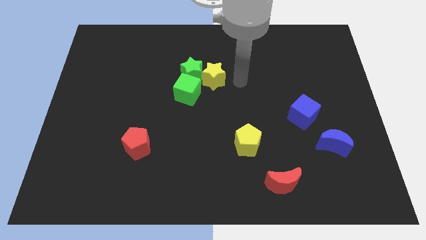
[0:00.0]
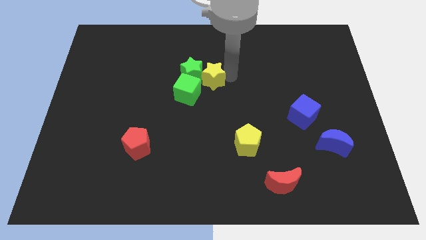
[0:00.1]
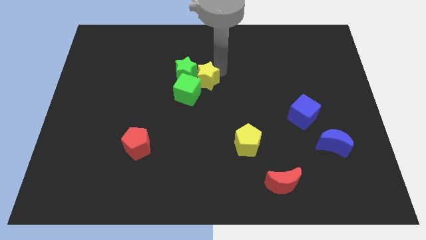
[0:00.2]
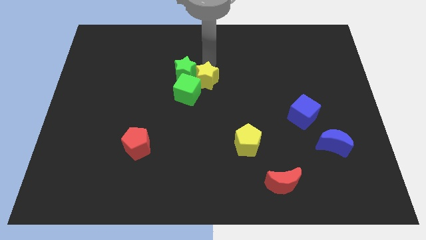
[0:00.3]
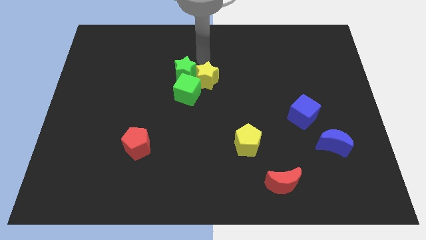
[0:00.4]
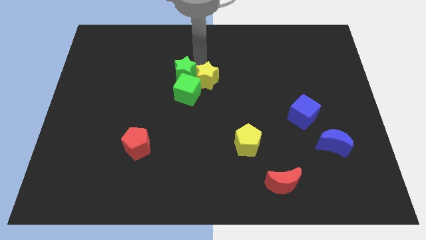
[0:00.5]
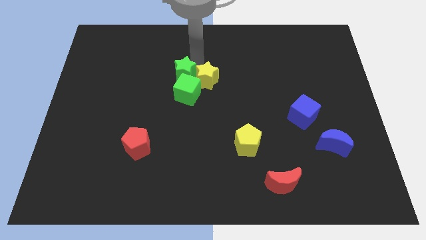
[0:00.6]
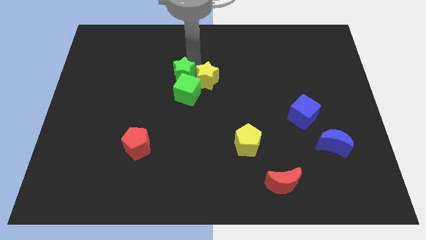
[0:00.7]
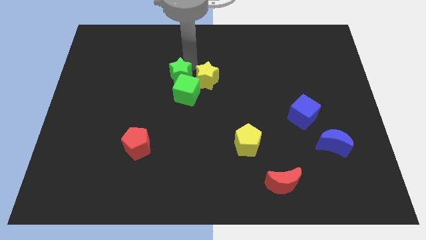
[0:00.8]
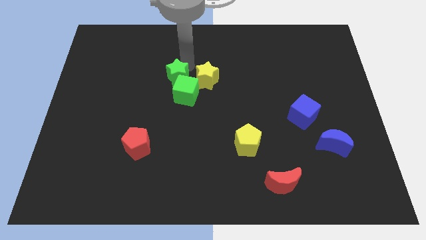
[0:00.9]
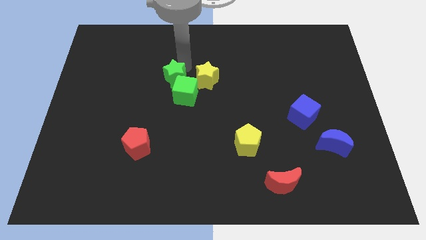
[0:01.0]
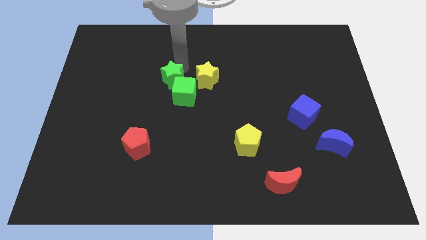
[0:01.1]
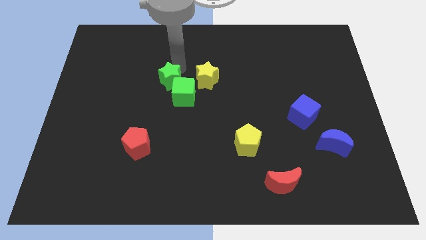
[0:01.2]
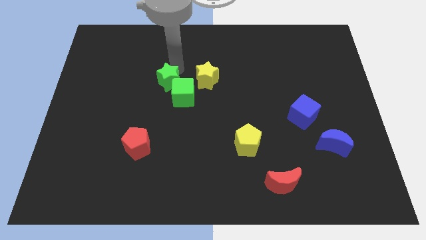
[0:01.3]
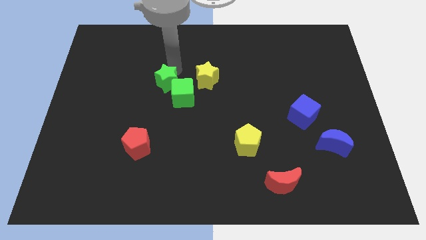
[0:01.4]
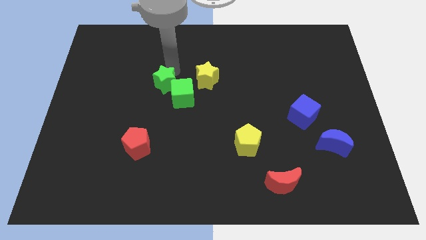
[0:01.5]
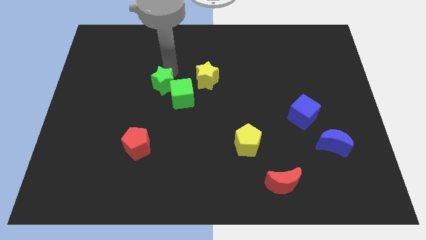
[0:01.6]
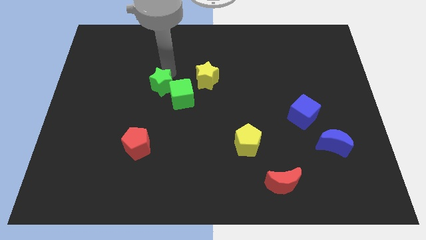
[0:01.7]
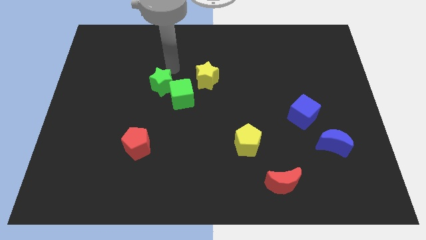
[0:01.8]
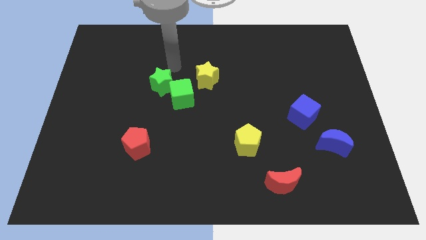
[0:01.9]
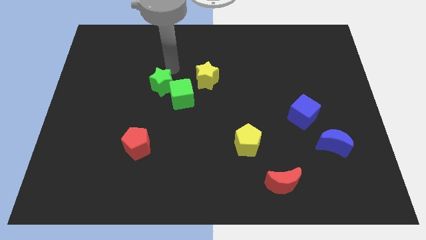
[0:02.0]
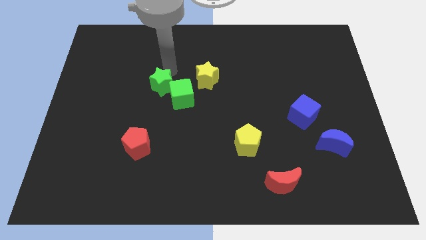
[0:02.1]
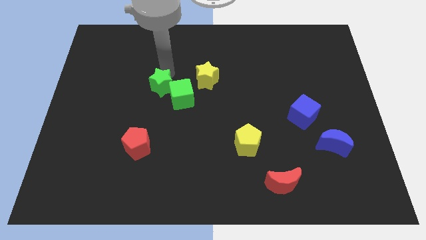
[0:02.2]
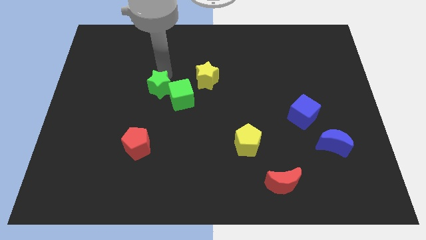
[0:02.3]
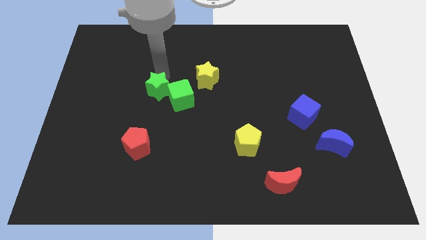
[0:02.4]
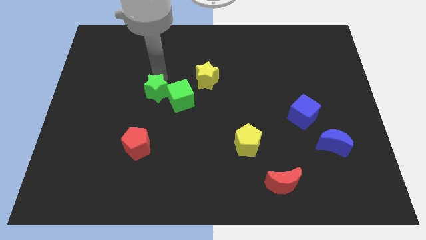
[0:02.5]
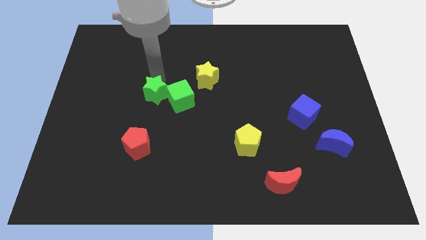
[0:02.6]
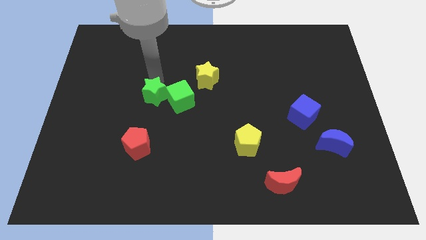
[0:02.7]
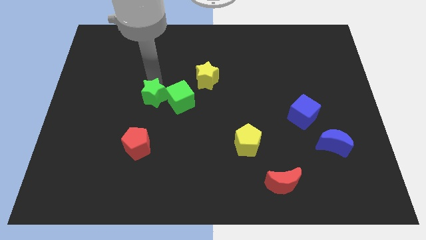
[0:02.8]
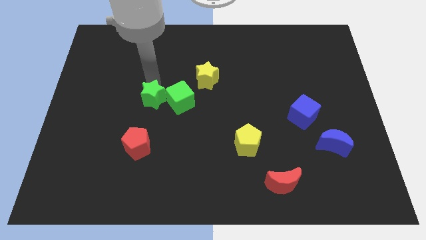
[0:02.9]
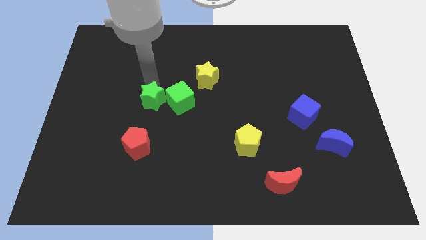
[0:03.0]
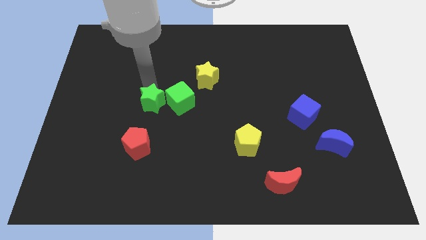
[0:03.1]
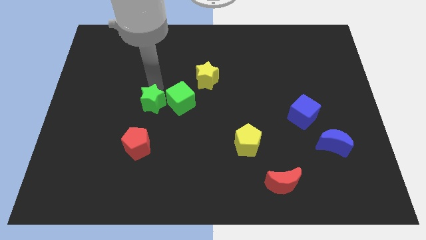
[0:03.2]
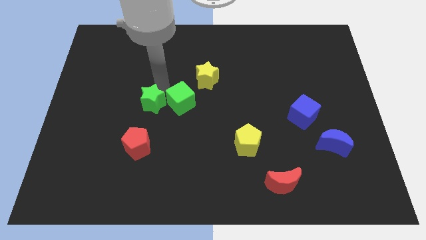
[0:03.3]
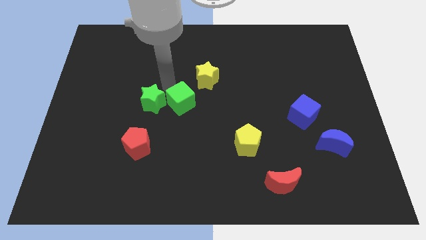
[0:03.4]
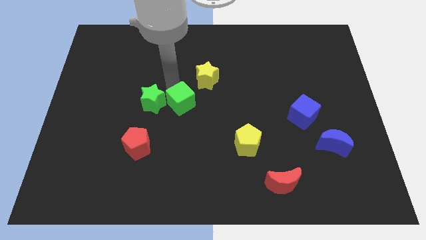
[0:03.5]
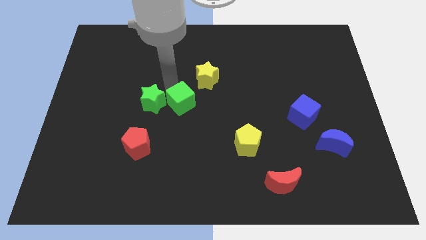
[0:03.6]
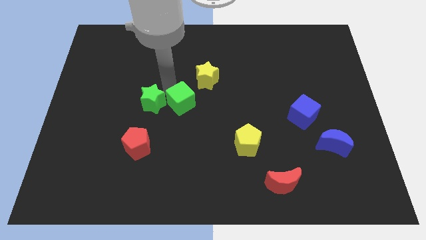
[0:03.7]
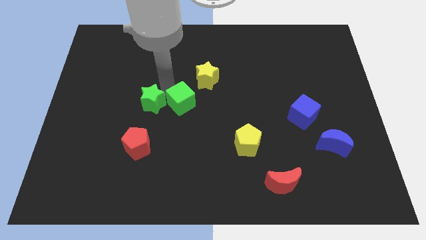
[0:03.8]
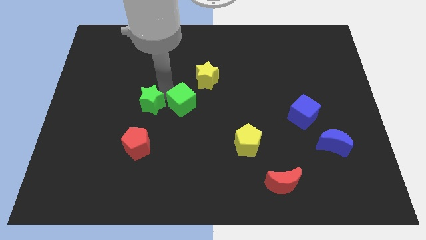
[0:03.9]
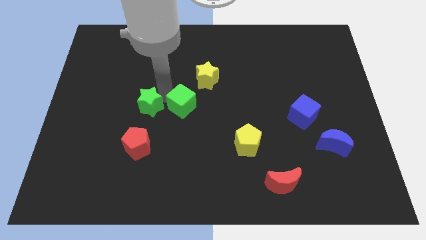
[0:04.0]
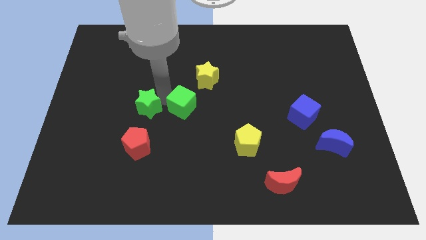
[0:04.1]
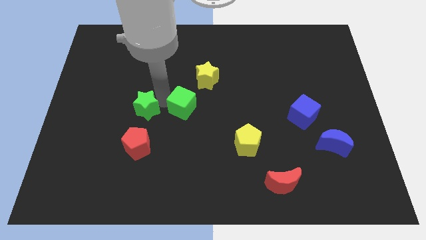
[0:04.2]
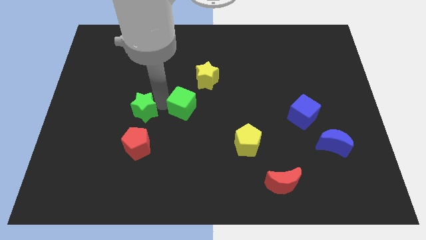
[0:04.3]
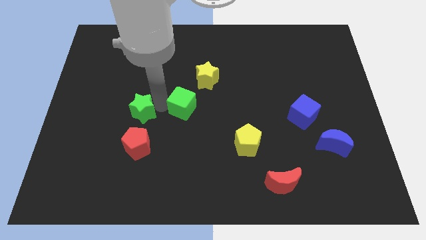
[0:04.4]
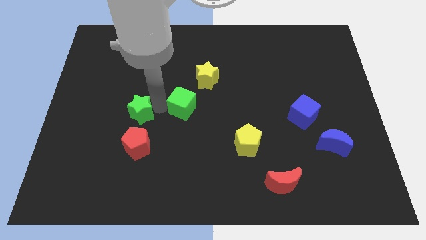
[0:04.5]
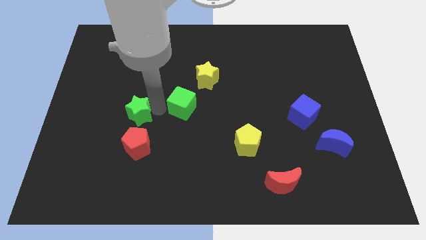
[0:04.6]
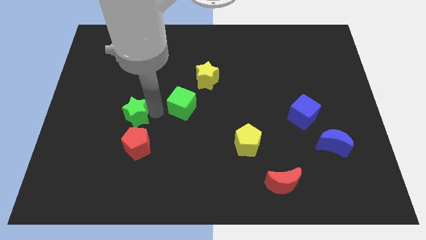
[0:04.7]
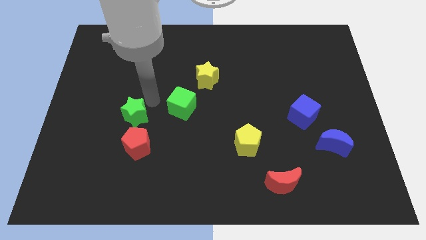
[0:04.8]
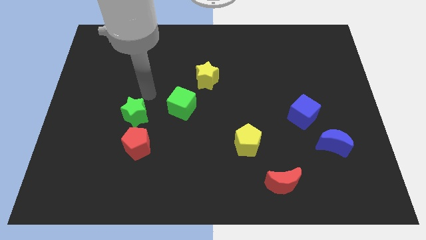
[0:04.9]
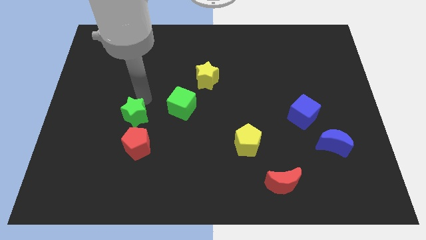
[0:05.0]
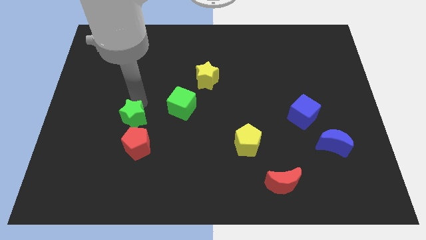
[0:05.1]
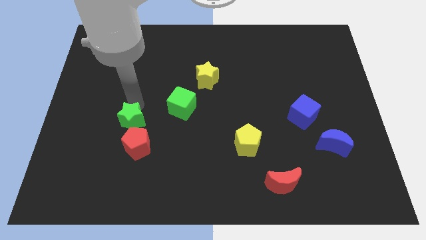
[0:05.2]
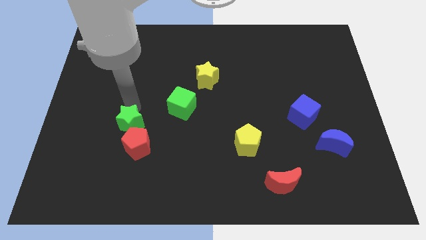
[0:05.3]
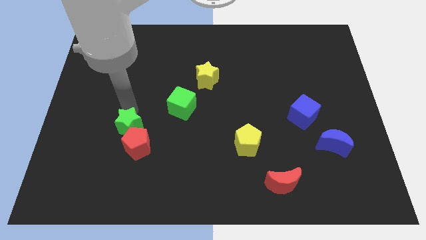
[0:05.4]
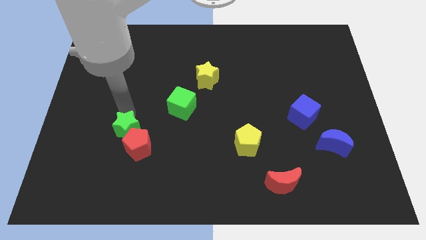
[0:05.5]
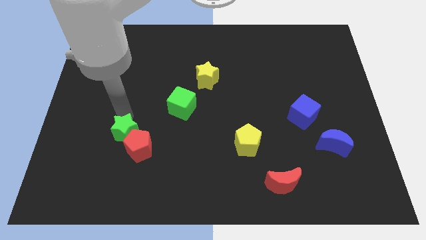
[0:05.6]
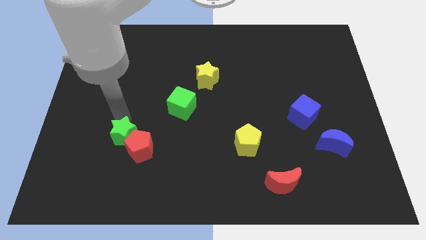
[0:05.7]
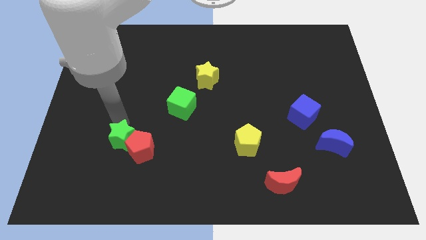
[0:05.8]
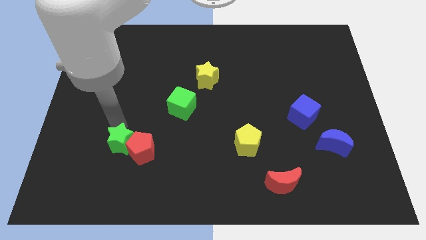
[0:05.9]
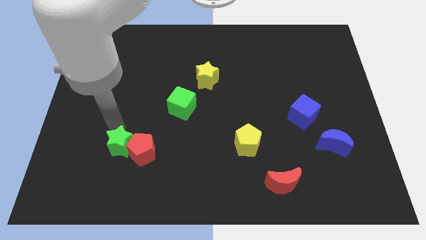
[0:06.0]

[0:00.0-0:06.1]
slide the green star to the bottom left of the red pentagon

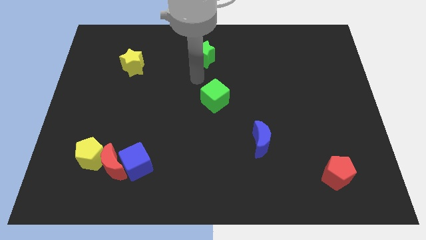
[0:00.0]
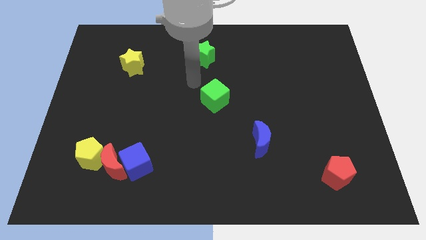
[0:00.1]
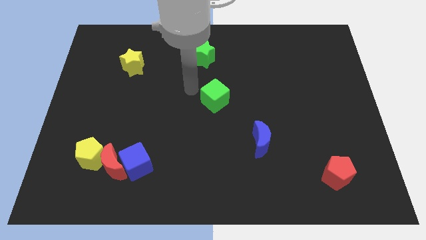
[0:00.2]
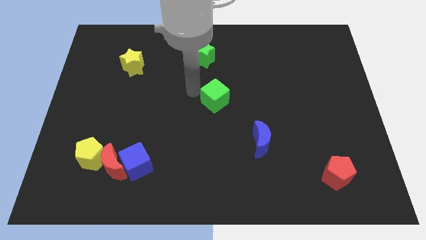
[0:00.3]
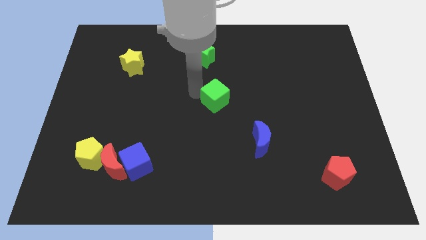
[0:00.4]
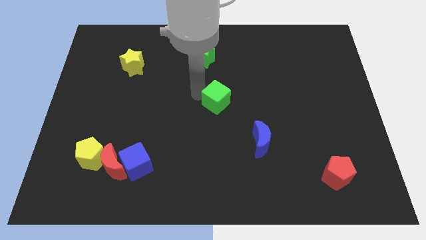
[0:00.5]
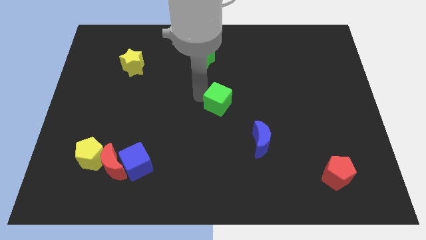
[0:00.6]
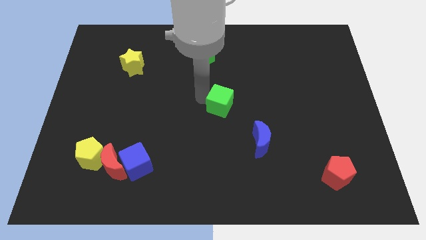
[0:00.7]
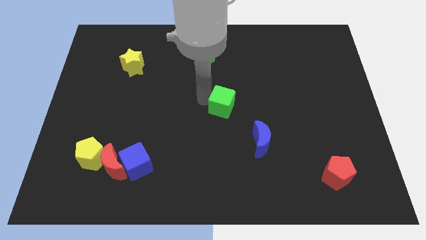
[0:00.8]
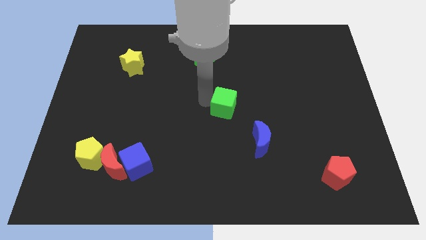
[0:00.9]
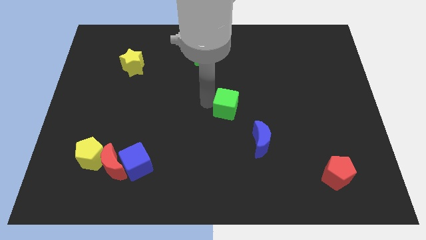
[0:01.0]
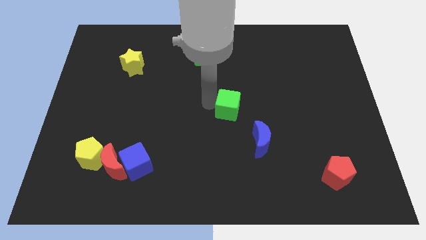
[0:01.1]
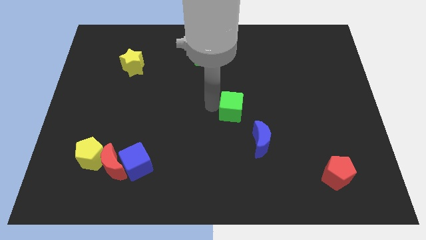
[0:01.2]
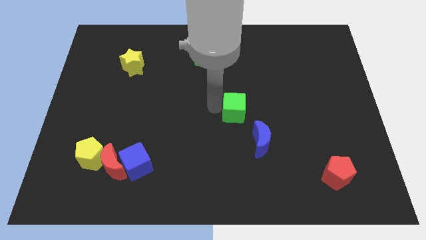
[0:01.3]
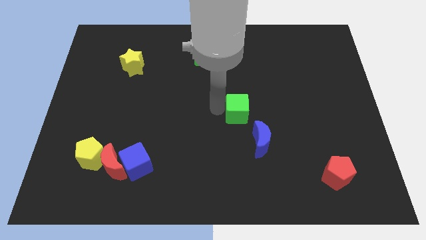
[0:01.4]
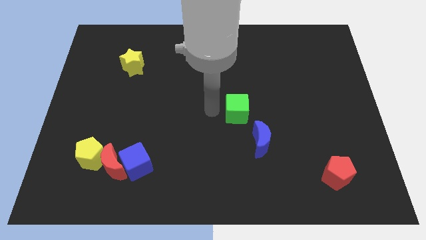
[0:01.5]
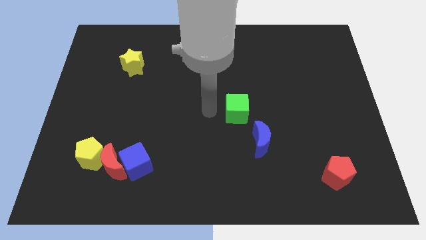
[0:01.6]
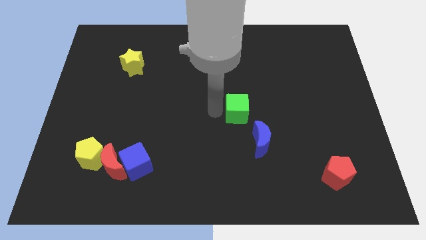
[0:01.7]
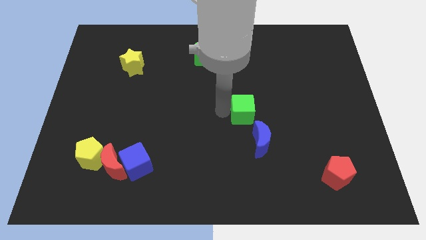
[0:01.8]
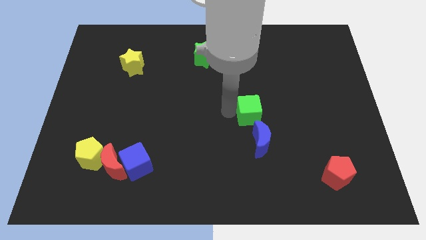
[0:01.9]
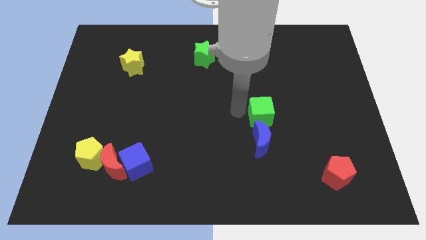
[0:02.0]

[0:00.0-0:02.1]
move the green cube diagonally up and to the right of the blue moon
